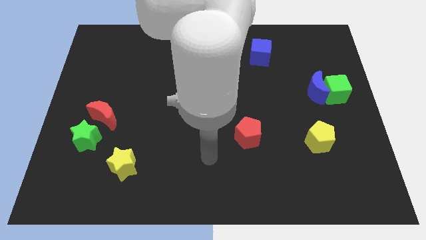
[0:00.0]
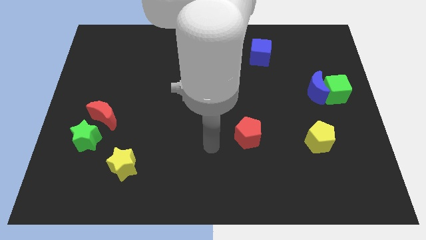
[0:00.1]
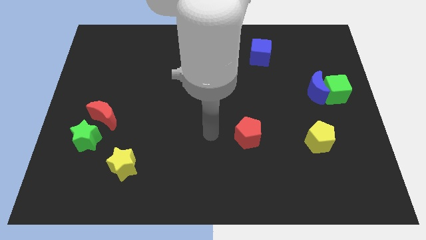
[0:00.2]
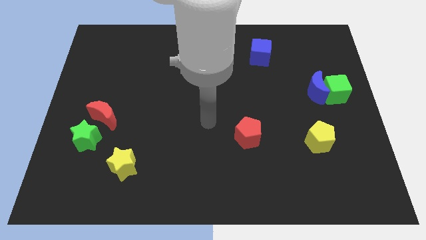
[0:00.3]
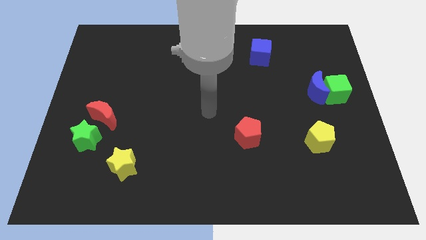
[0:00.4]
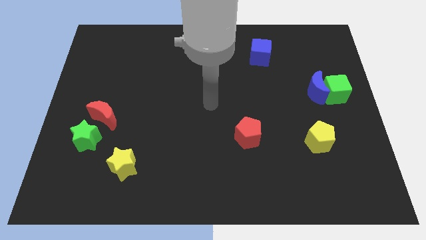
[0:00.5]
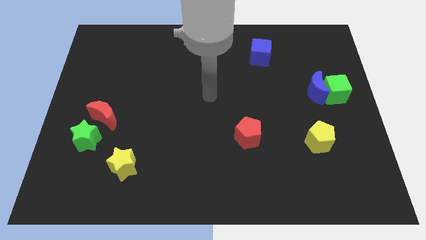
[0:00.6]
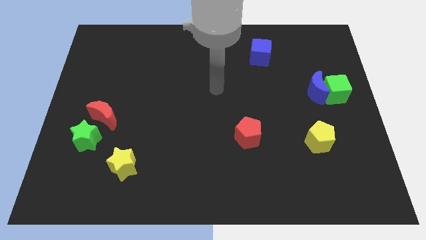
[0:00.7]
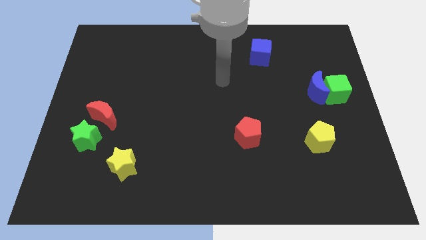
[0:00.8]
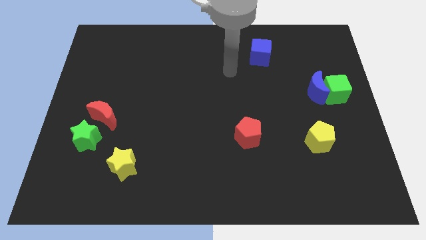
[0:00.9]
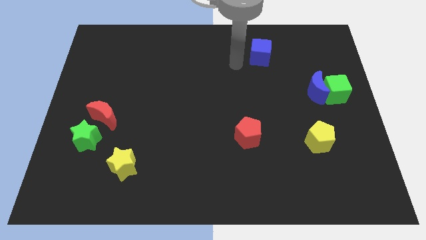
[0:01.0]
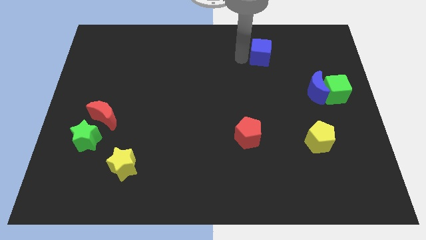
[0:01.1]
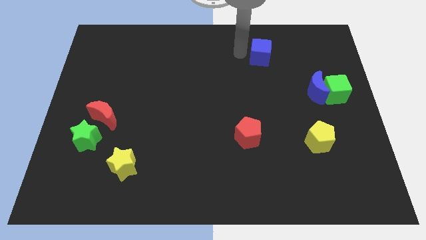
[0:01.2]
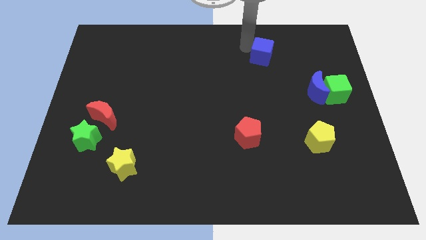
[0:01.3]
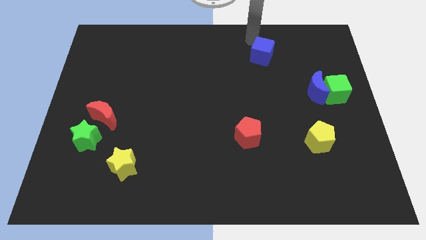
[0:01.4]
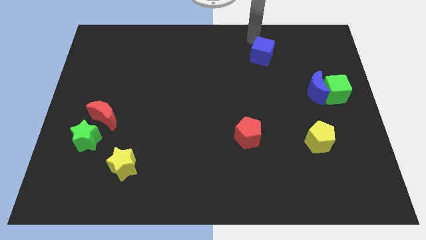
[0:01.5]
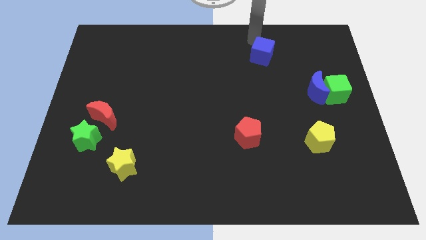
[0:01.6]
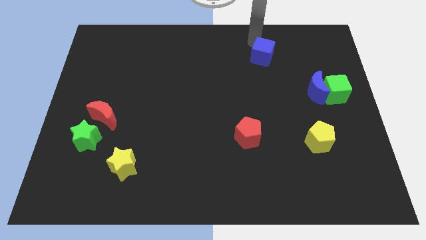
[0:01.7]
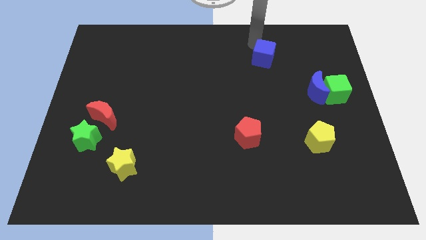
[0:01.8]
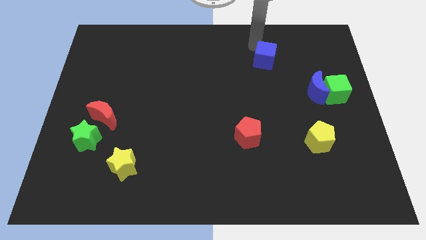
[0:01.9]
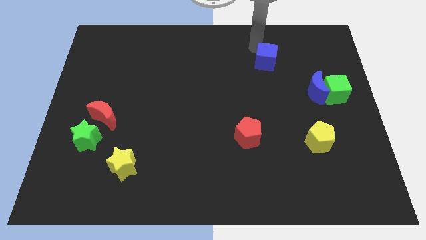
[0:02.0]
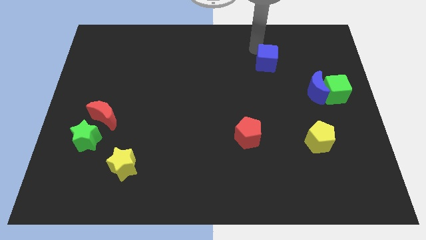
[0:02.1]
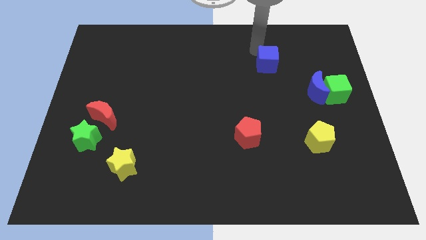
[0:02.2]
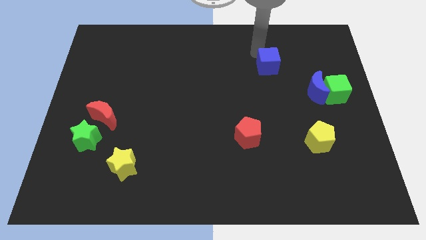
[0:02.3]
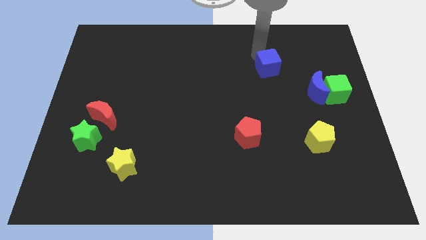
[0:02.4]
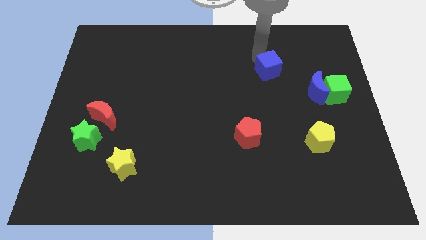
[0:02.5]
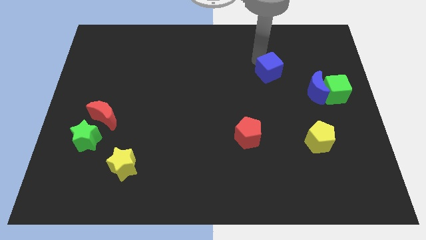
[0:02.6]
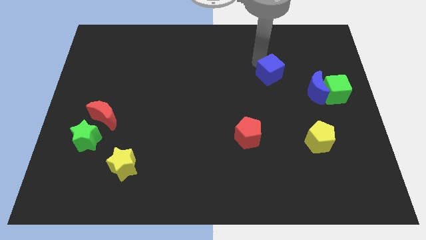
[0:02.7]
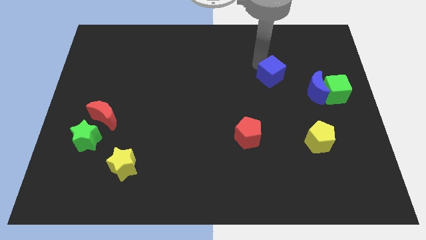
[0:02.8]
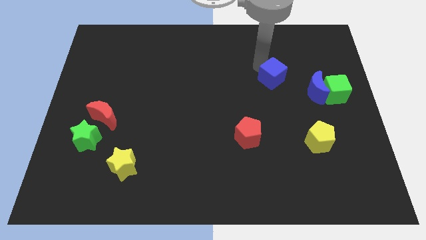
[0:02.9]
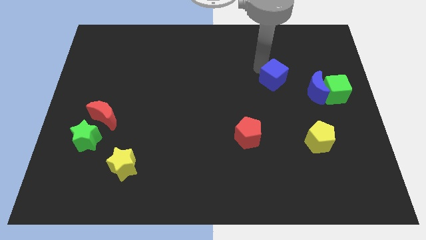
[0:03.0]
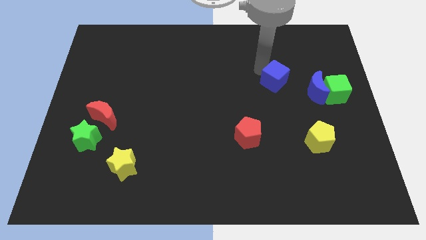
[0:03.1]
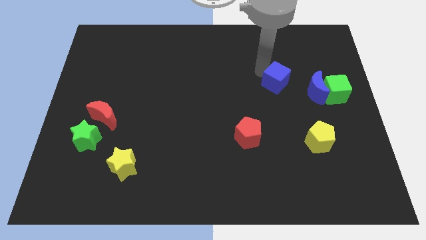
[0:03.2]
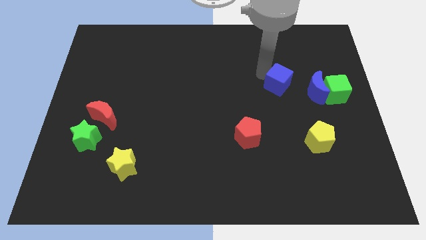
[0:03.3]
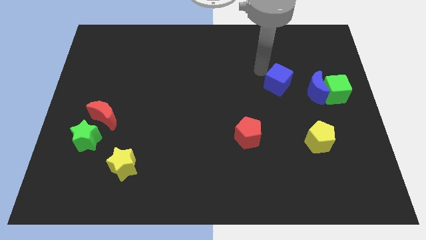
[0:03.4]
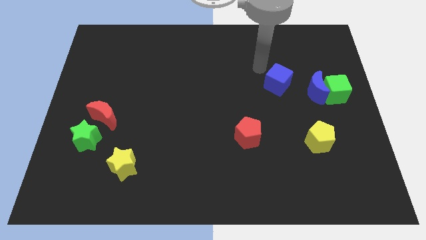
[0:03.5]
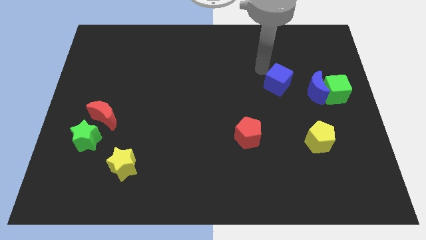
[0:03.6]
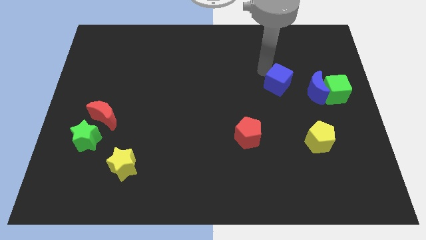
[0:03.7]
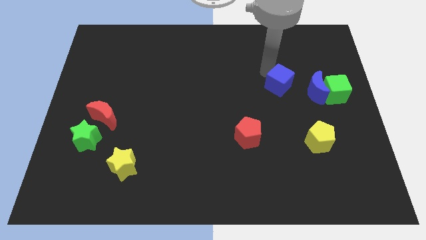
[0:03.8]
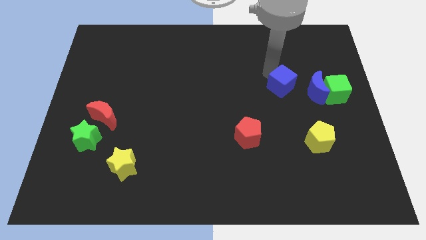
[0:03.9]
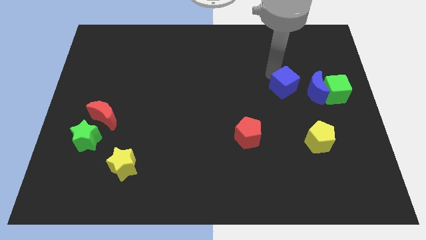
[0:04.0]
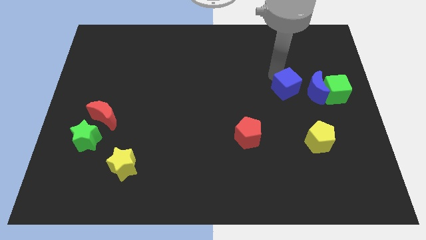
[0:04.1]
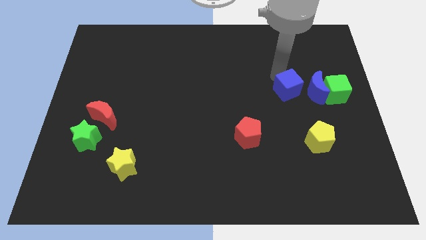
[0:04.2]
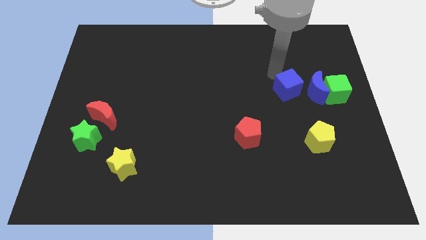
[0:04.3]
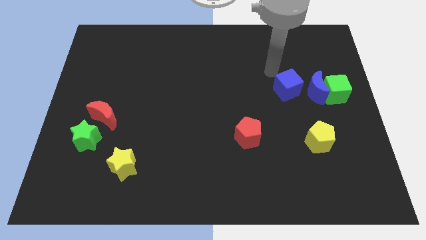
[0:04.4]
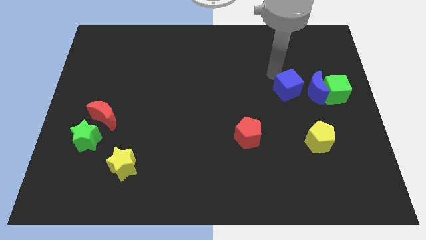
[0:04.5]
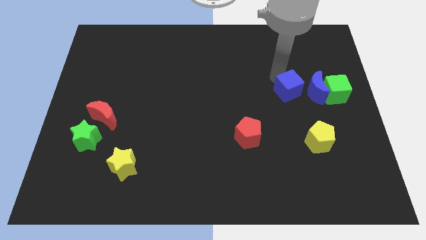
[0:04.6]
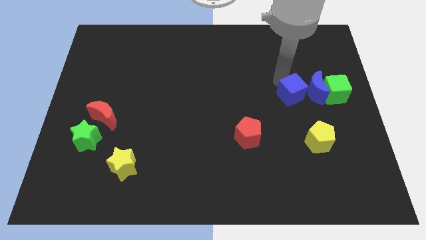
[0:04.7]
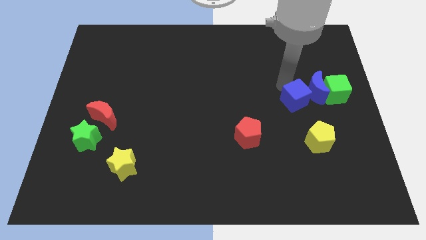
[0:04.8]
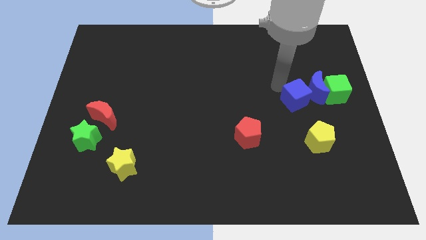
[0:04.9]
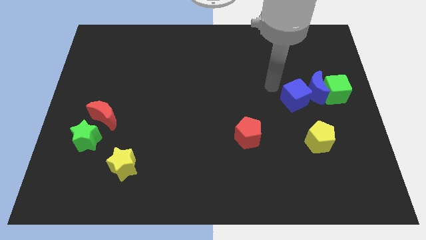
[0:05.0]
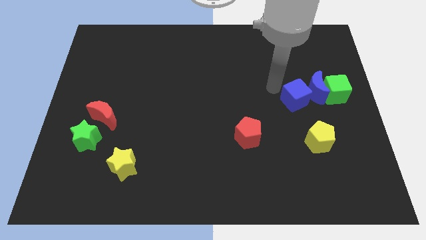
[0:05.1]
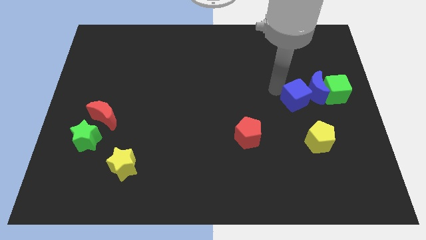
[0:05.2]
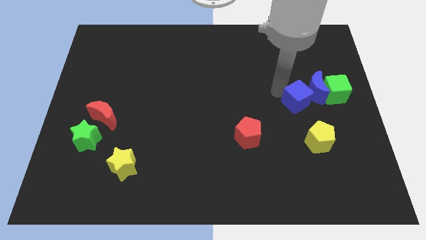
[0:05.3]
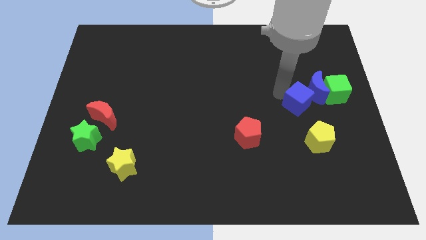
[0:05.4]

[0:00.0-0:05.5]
move the blue cube to the bottom left side of the green cube

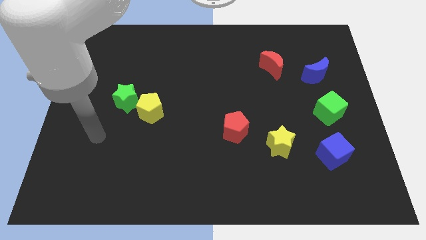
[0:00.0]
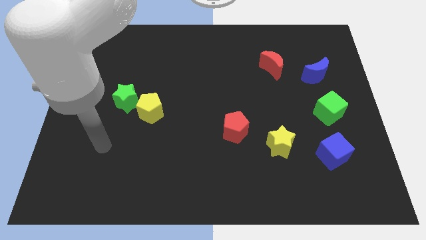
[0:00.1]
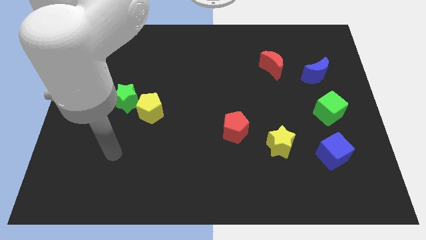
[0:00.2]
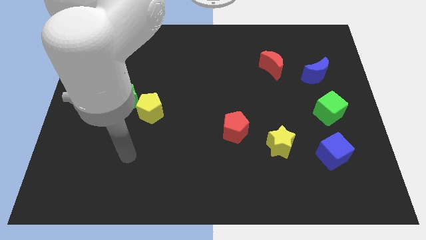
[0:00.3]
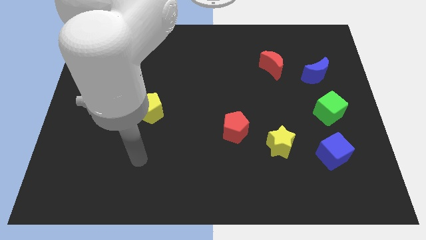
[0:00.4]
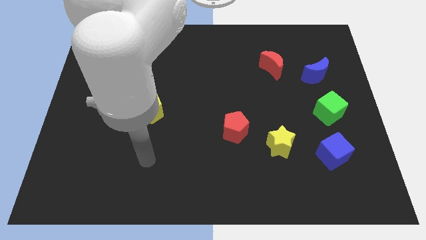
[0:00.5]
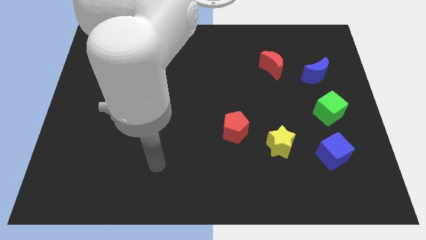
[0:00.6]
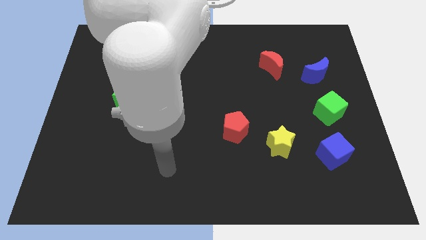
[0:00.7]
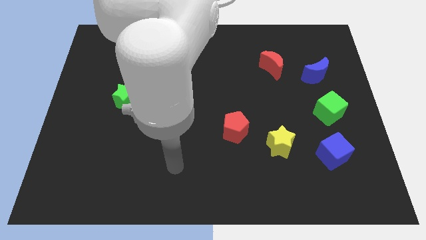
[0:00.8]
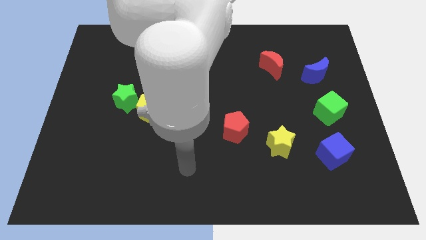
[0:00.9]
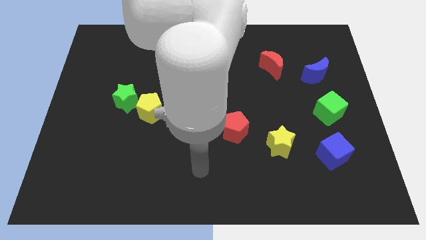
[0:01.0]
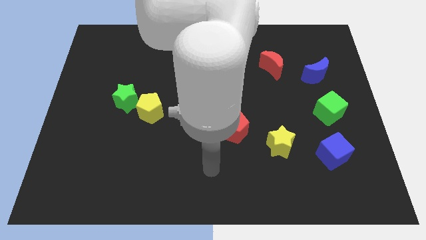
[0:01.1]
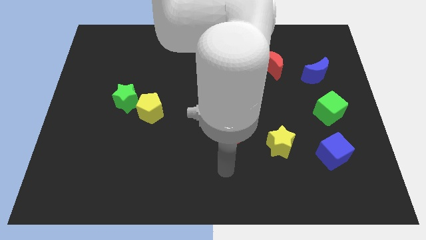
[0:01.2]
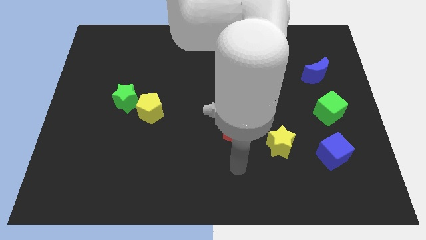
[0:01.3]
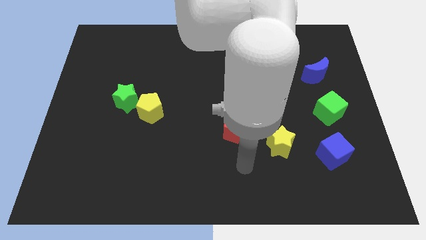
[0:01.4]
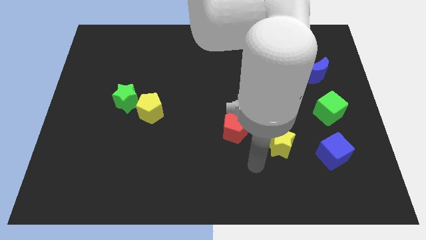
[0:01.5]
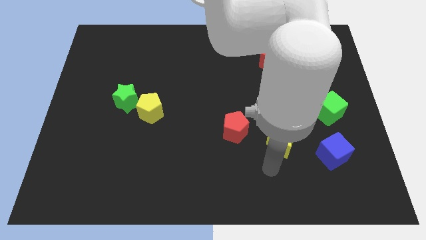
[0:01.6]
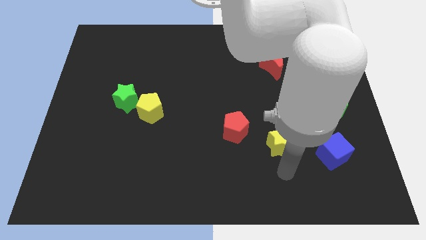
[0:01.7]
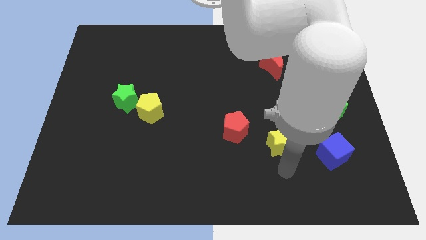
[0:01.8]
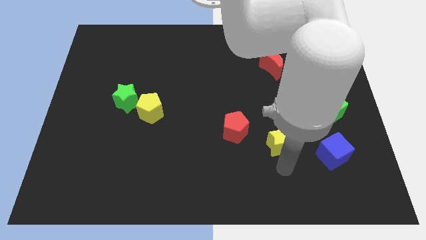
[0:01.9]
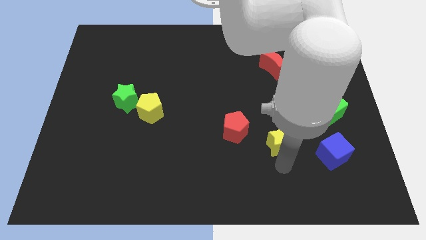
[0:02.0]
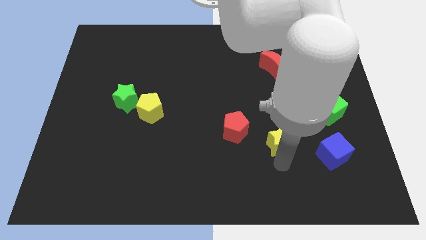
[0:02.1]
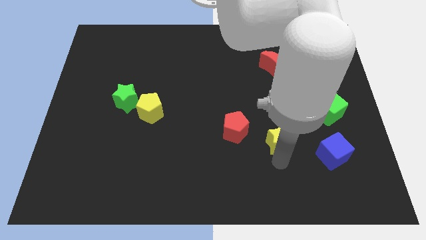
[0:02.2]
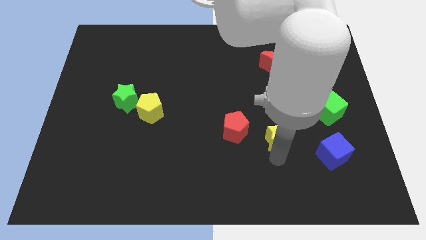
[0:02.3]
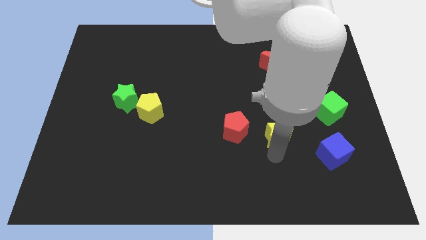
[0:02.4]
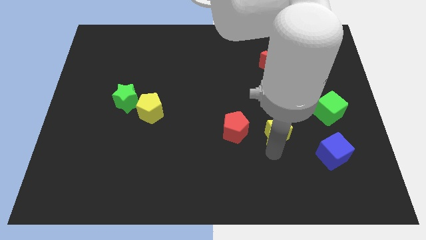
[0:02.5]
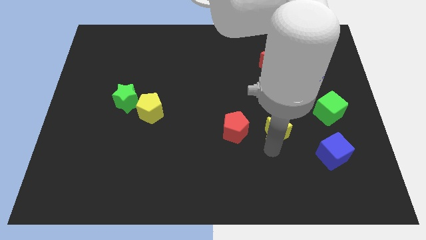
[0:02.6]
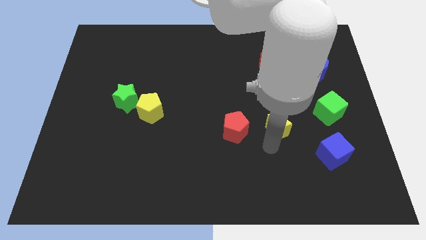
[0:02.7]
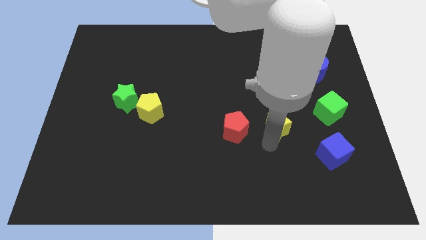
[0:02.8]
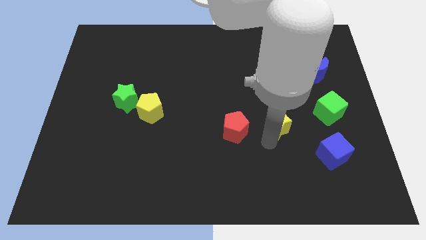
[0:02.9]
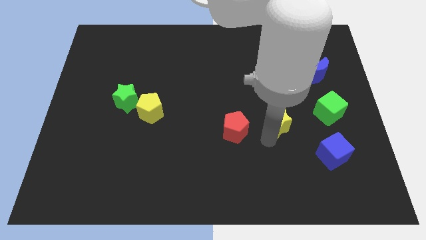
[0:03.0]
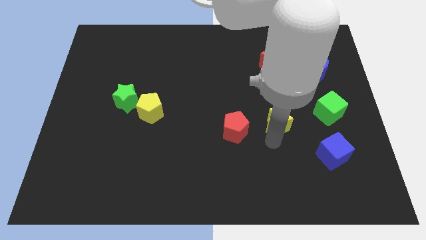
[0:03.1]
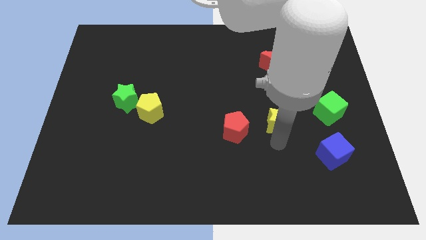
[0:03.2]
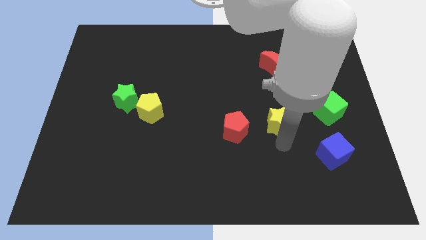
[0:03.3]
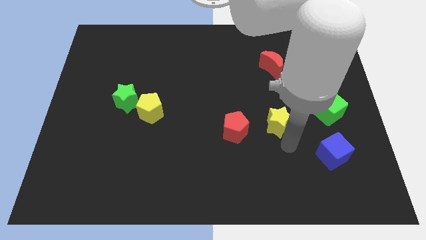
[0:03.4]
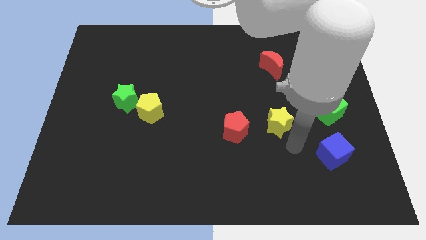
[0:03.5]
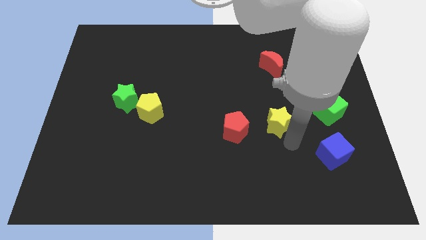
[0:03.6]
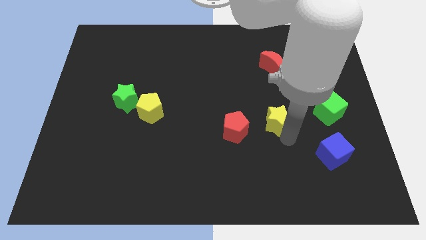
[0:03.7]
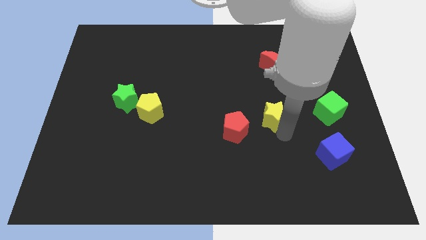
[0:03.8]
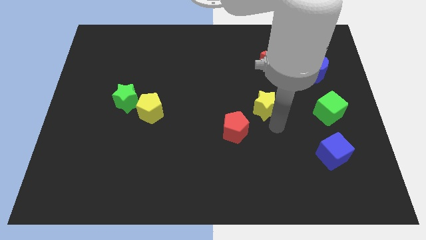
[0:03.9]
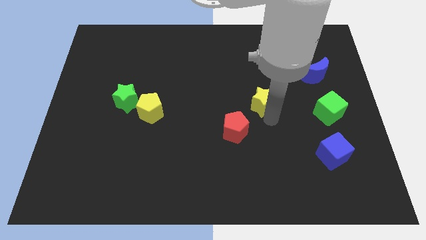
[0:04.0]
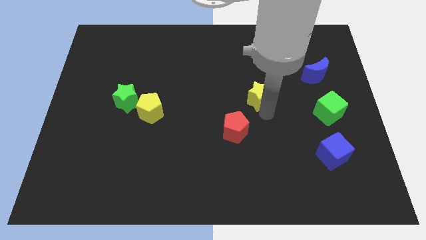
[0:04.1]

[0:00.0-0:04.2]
put the yellow star diagonally down and to the left of the red moon
